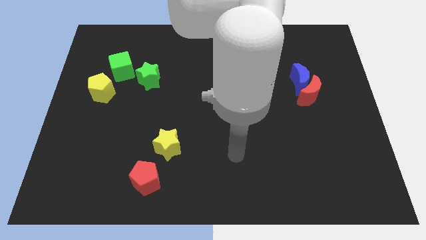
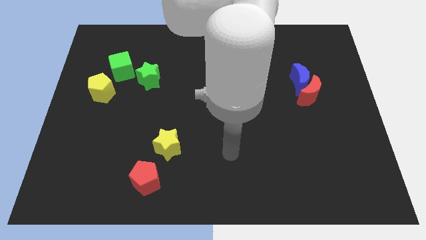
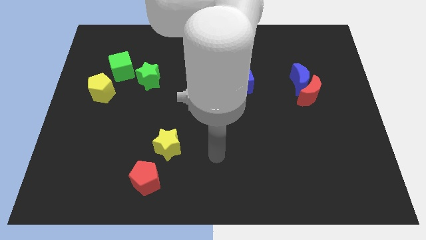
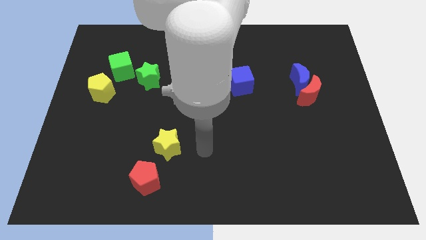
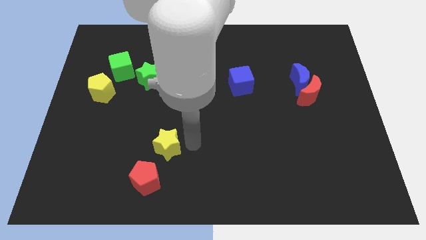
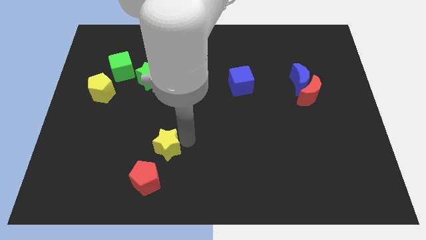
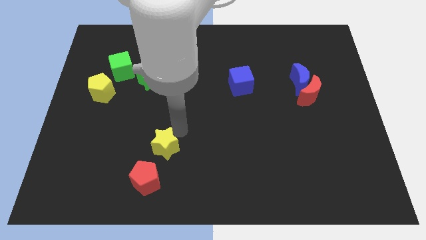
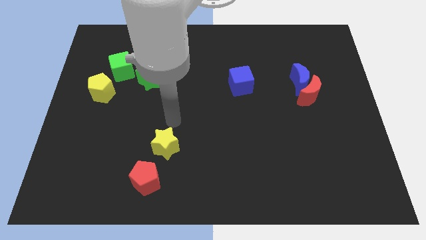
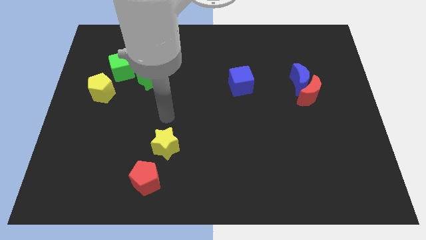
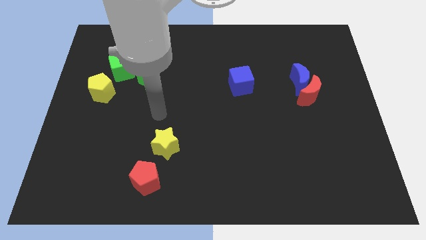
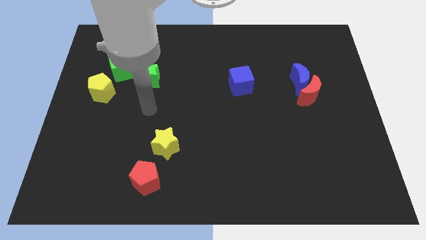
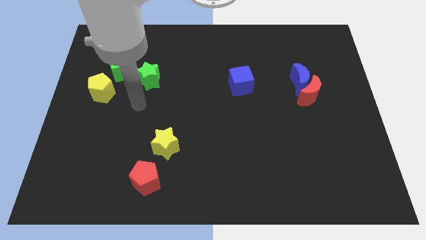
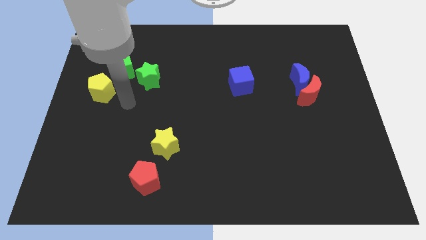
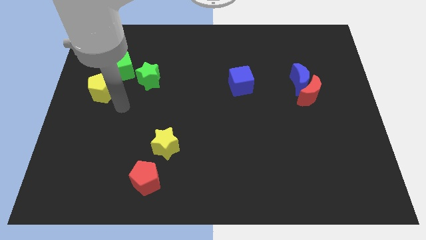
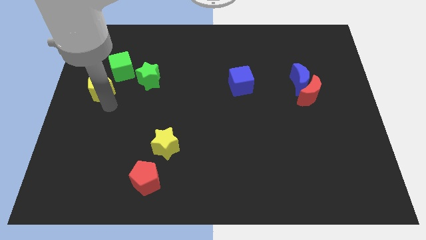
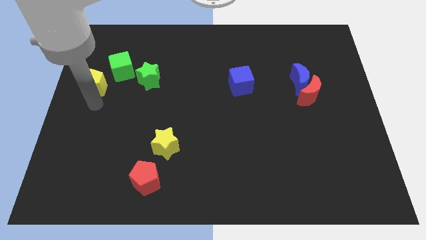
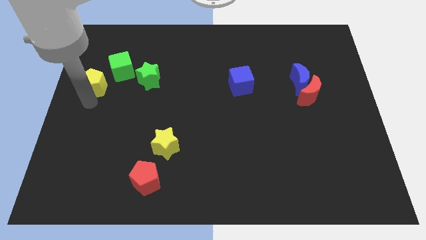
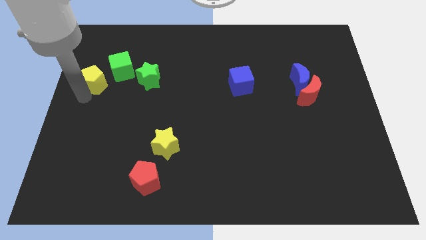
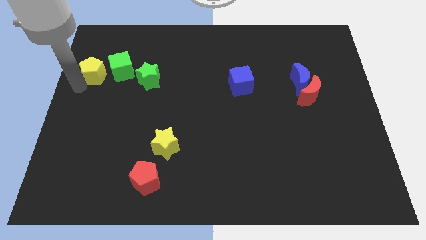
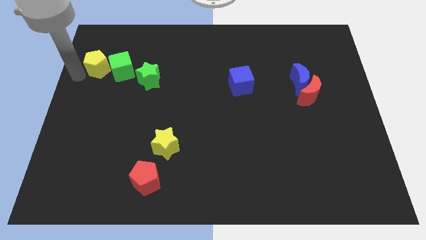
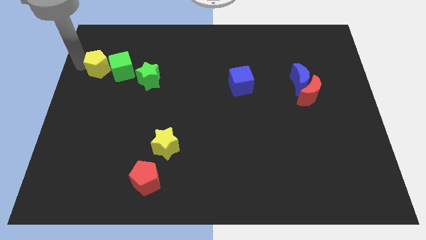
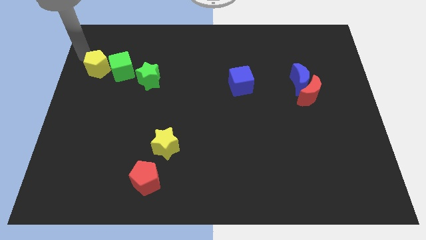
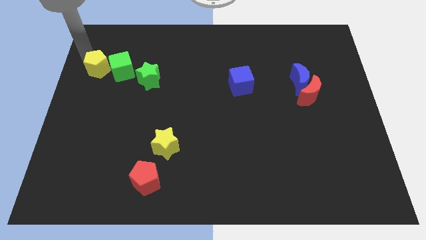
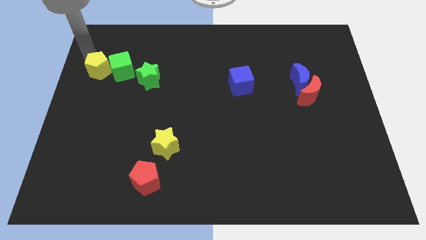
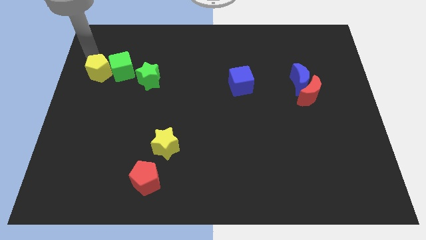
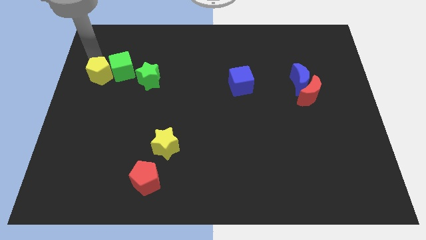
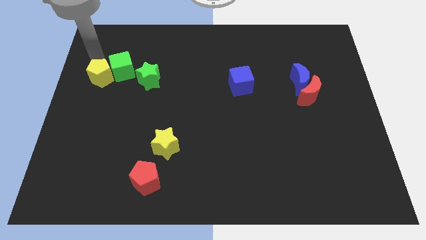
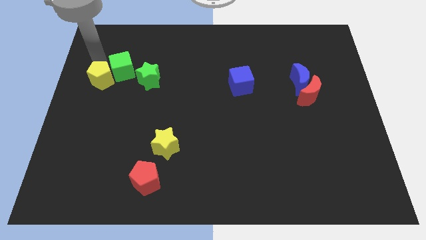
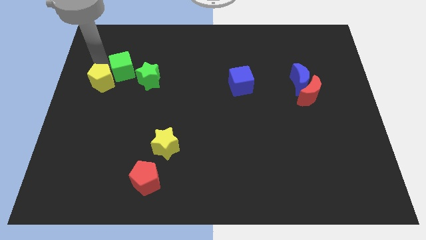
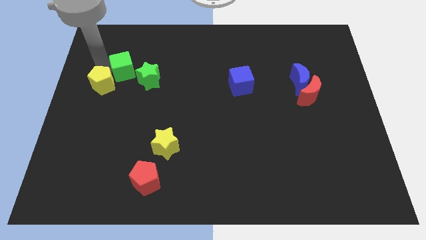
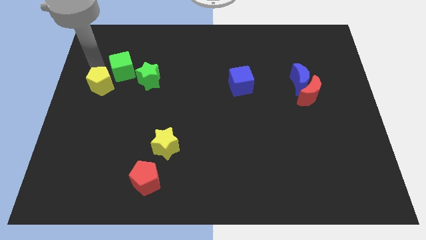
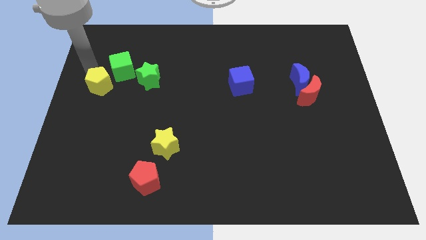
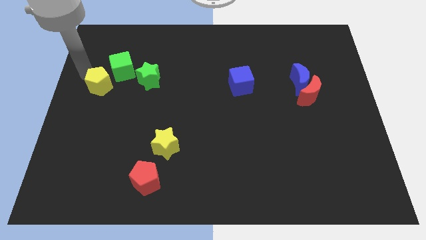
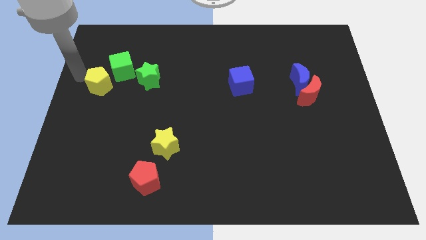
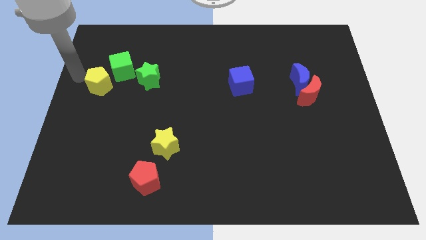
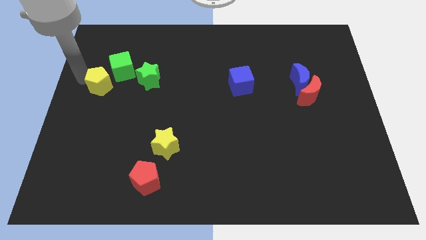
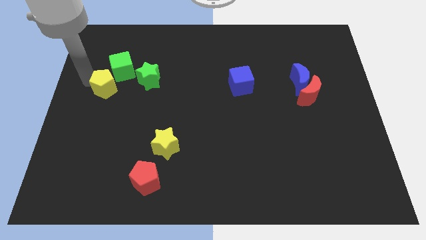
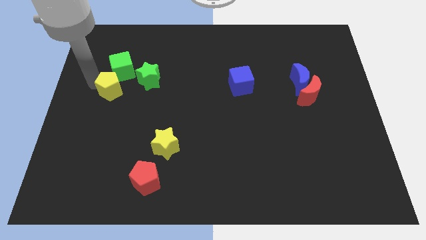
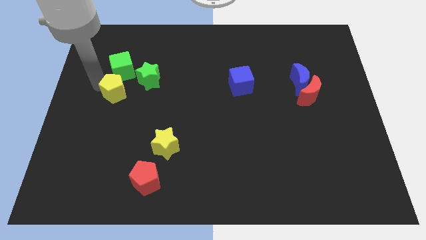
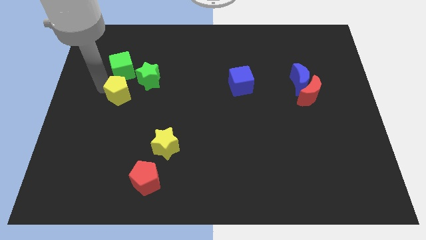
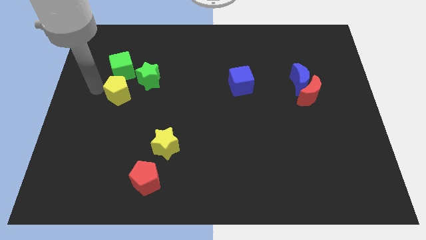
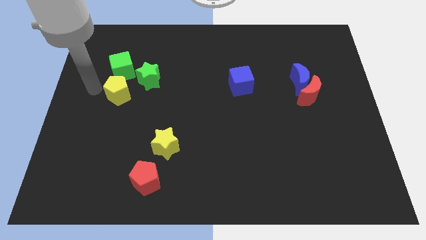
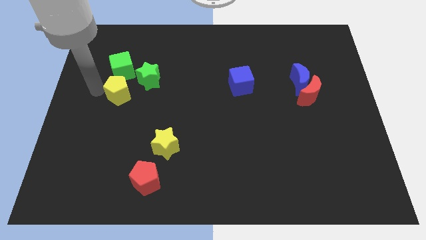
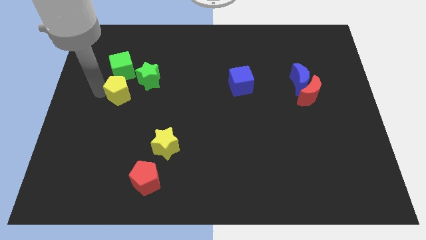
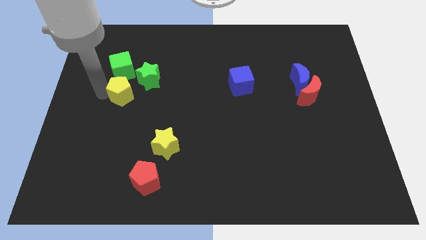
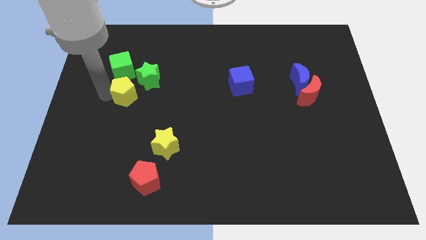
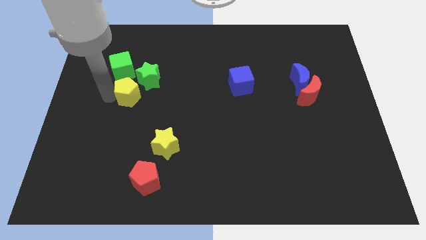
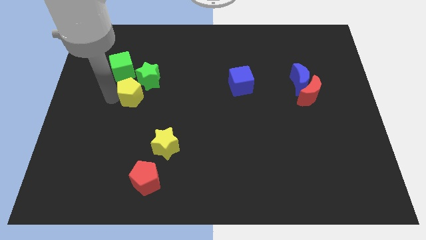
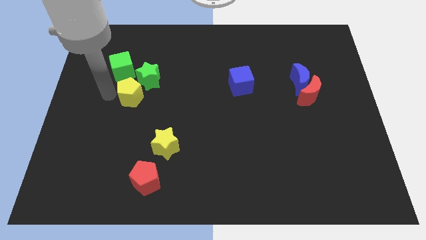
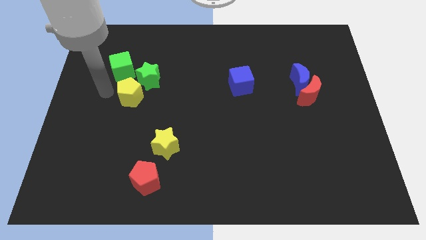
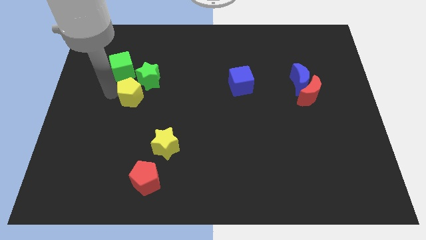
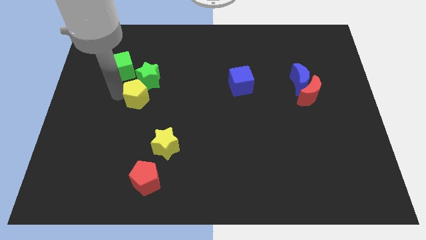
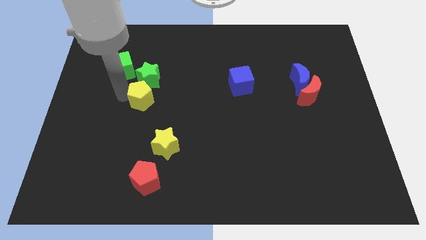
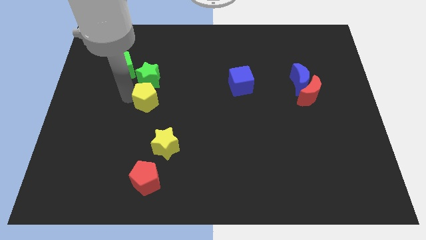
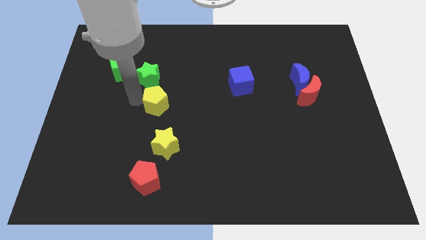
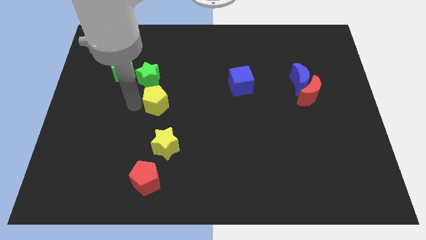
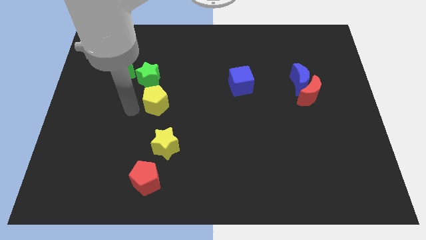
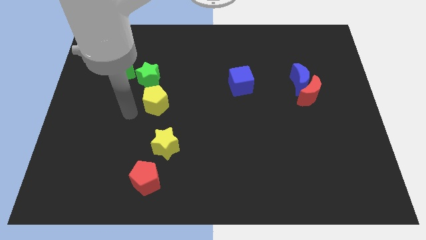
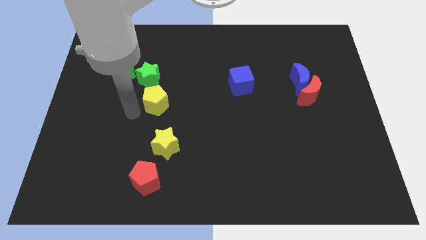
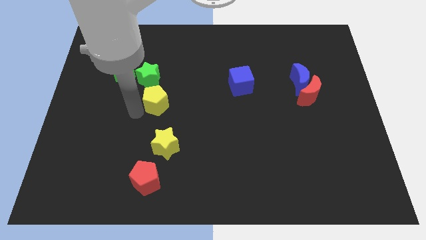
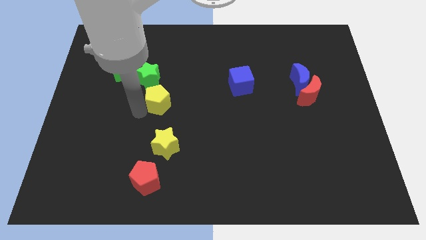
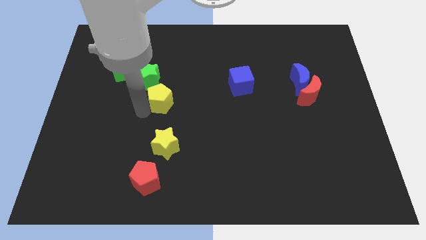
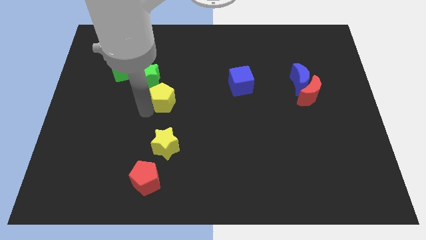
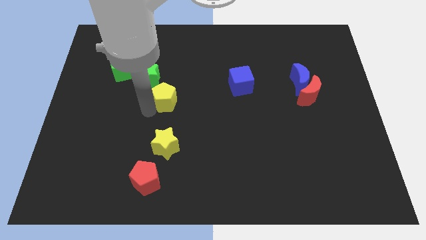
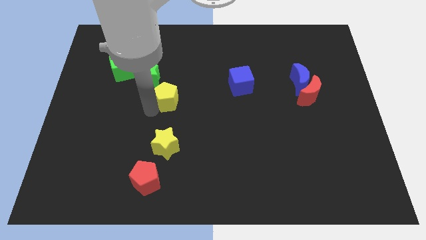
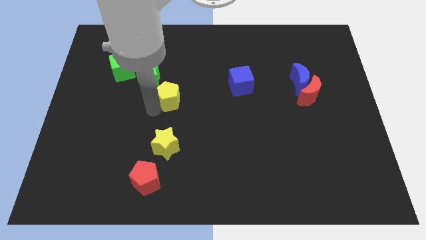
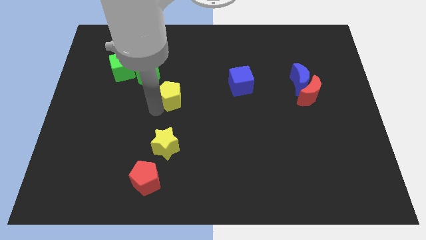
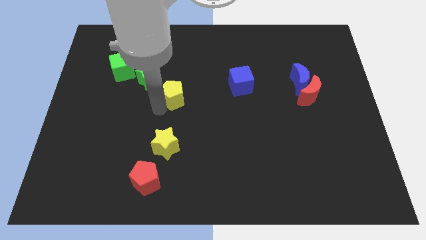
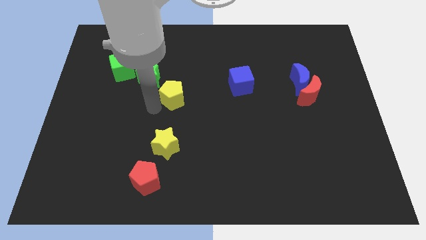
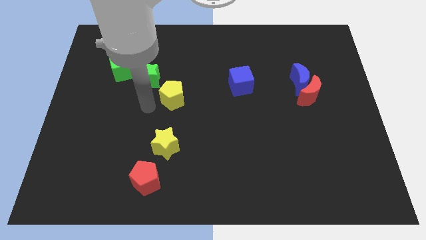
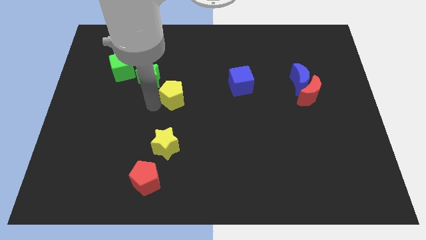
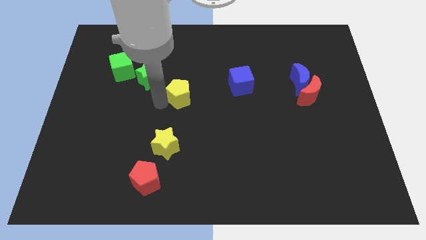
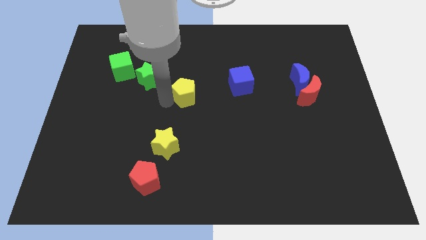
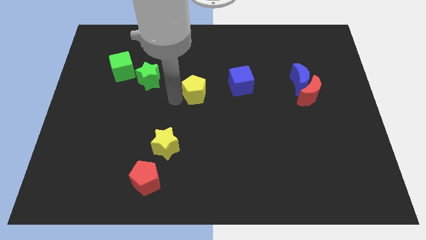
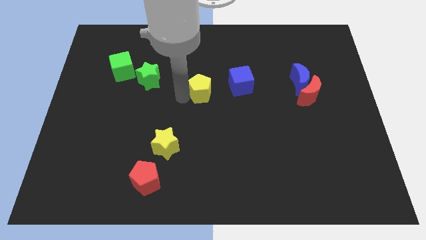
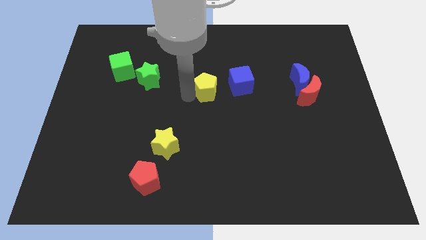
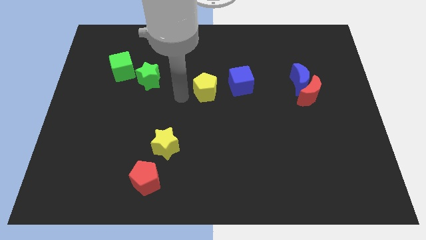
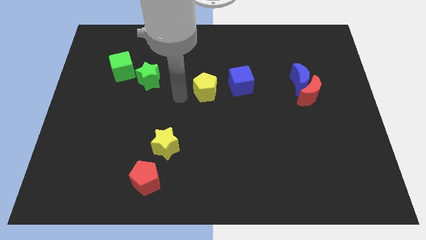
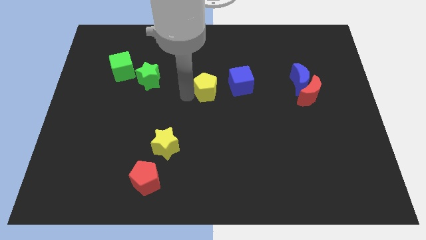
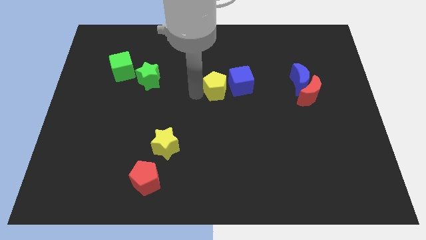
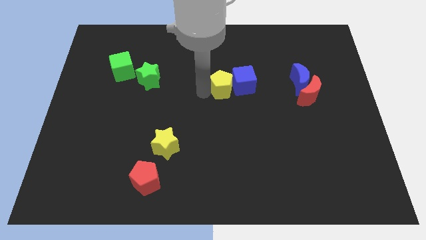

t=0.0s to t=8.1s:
move the yellow pentagon close to the blue cube
